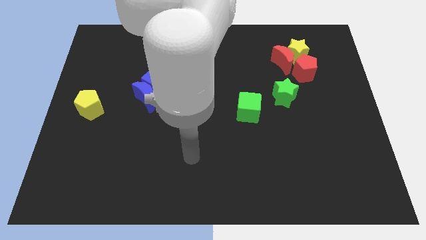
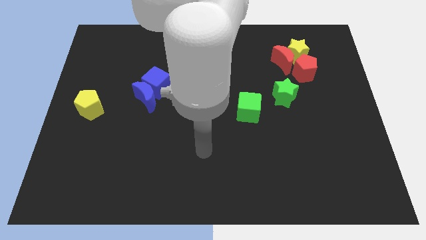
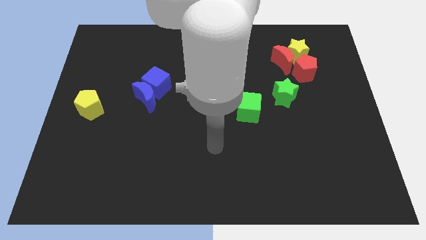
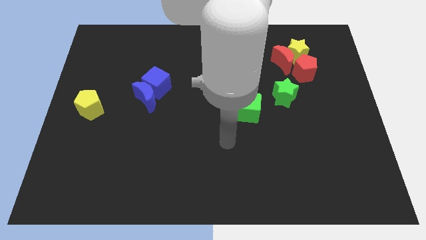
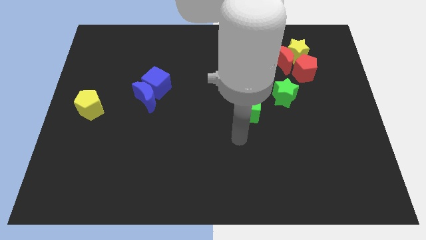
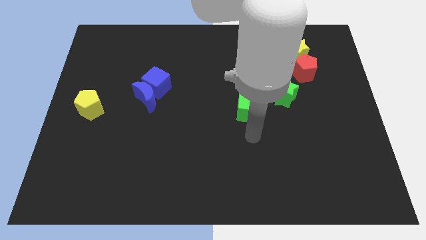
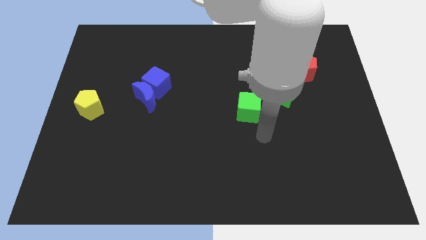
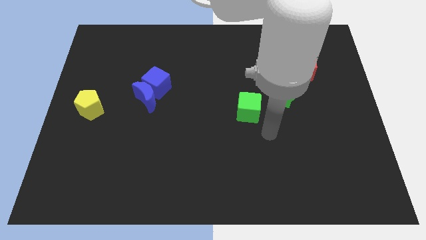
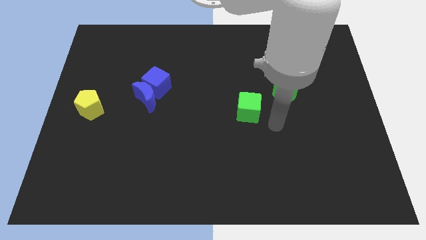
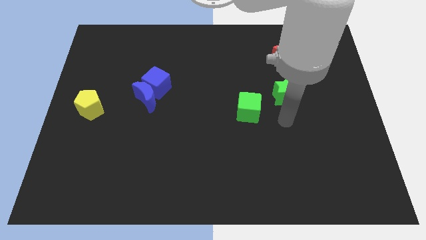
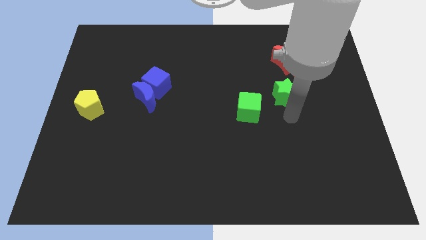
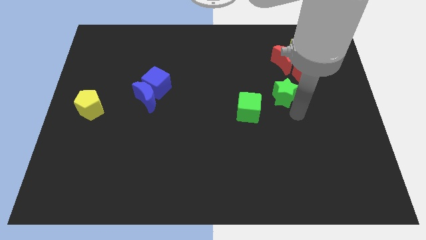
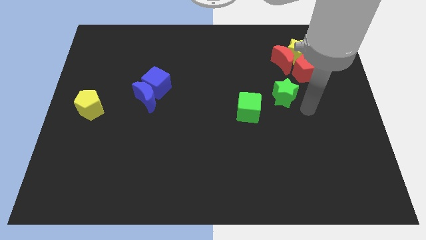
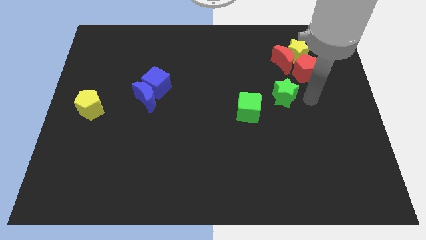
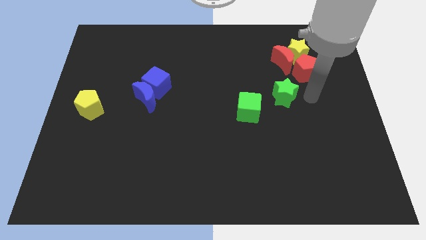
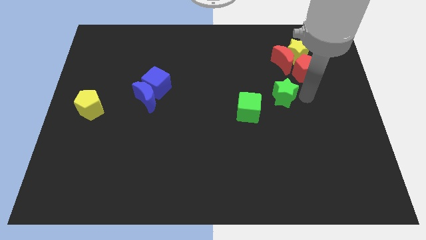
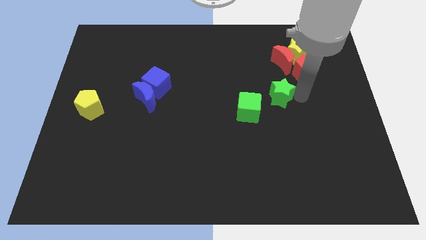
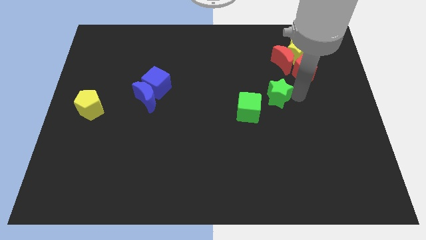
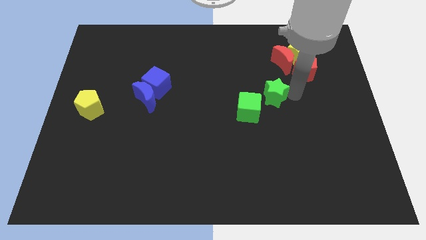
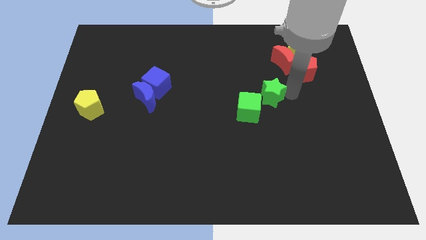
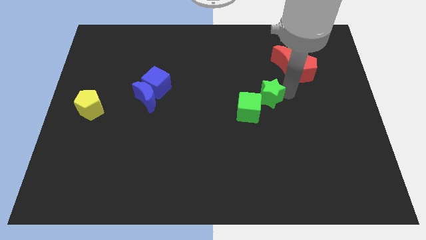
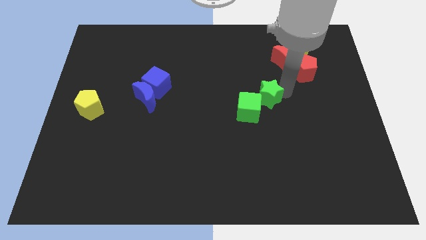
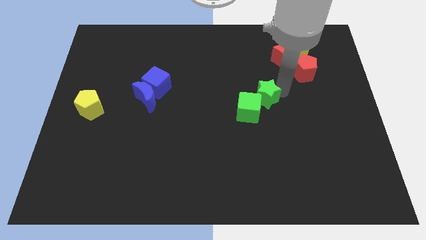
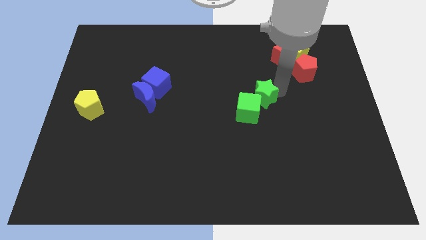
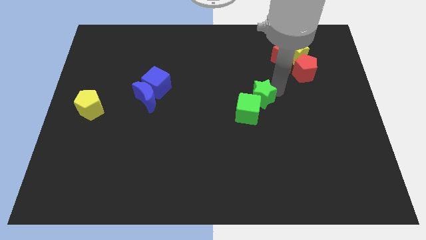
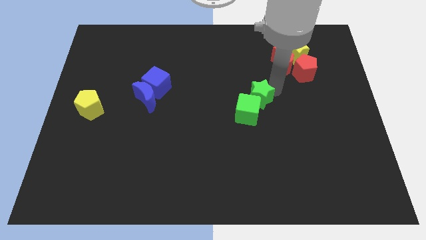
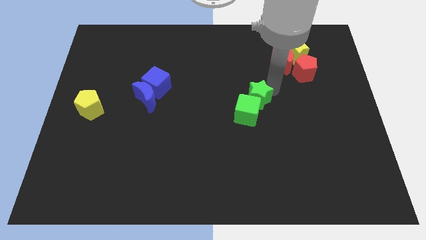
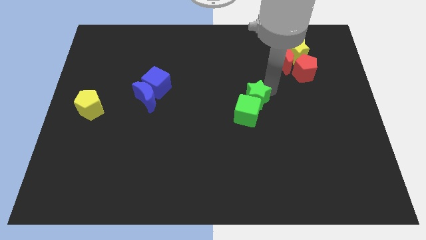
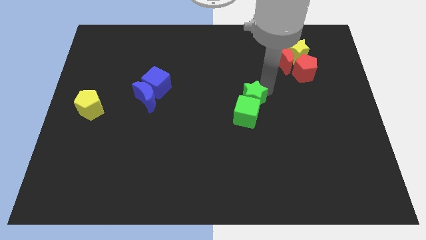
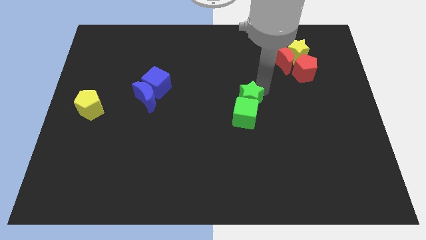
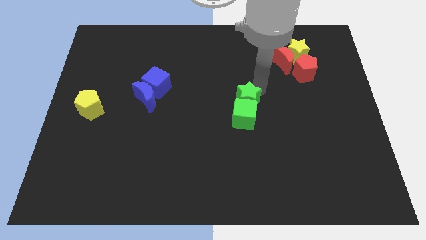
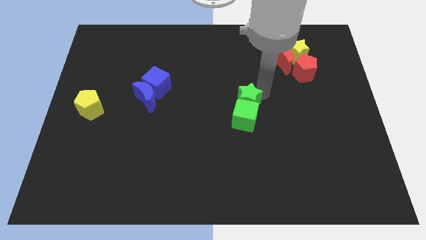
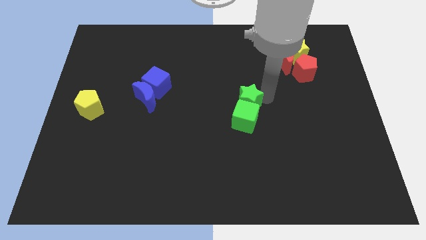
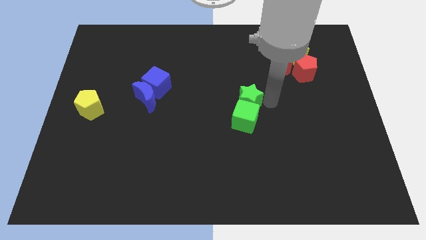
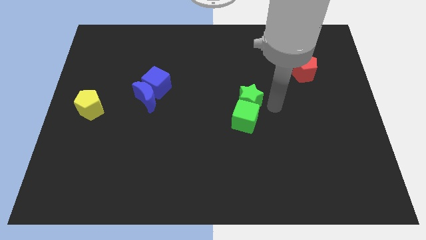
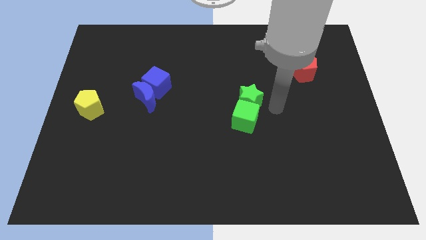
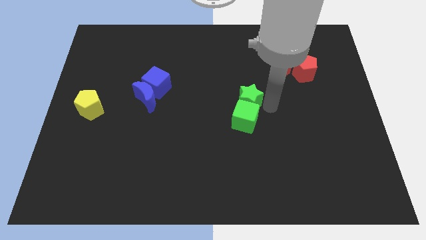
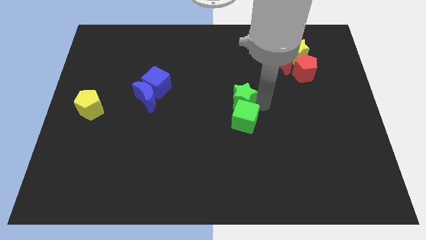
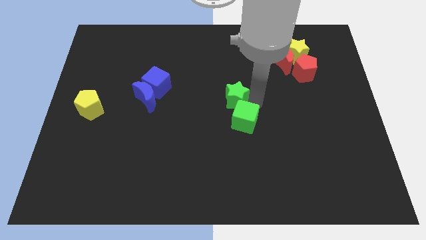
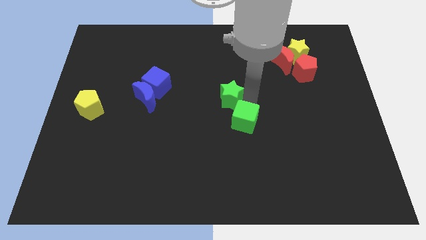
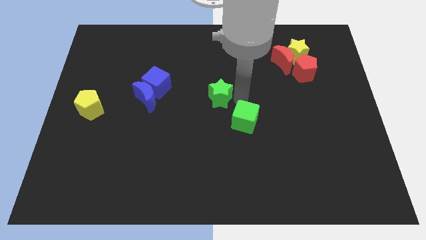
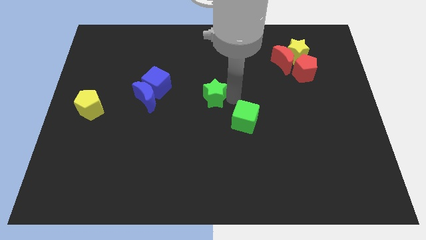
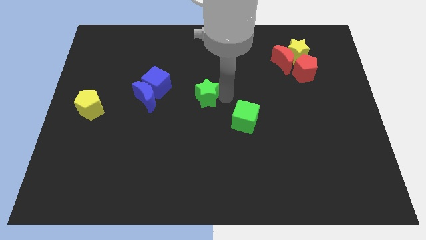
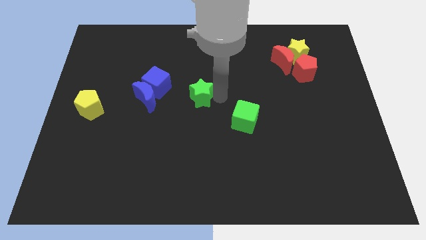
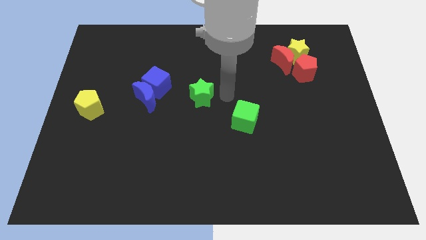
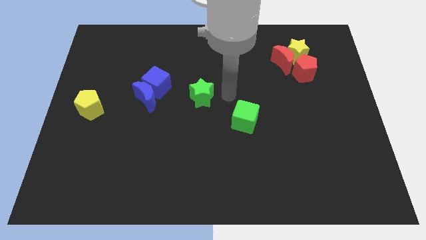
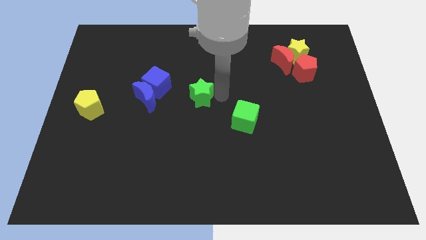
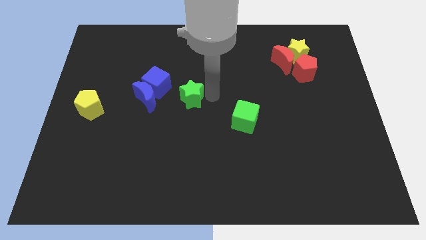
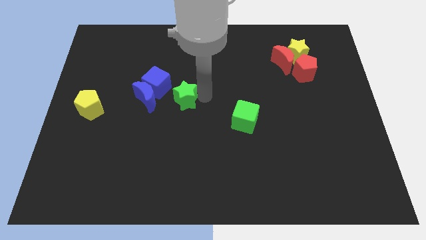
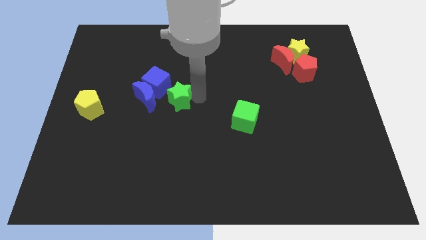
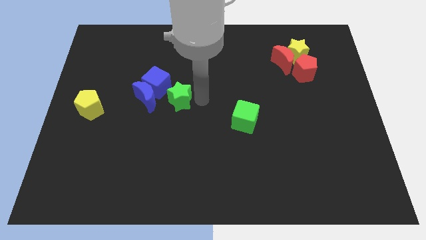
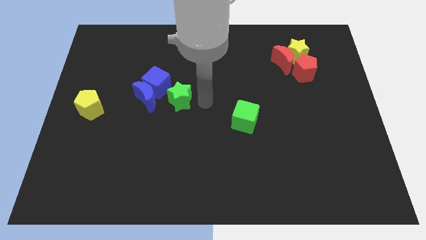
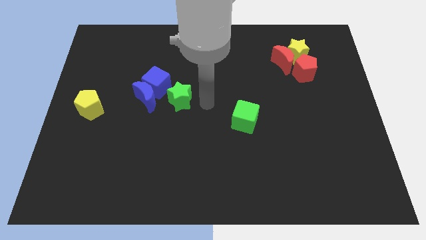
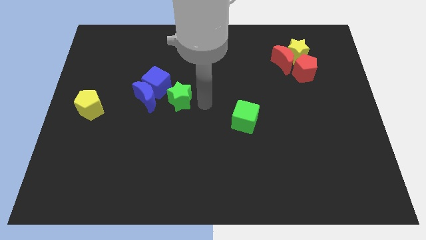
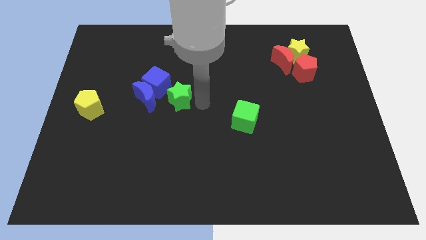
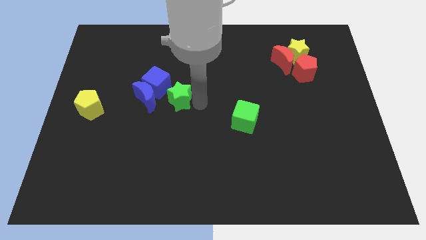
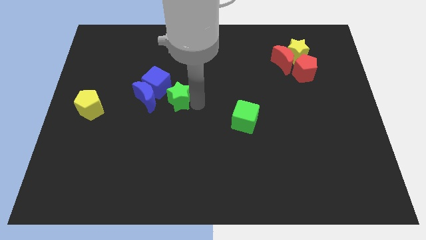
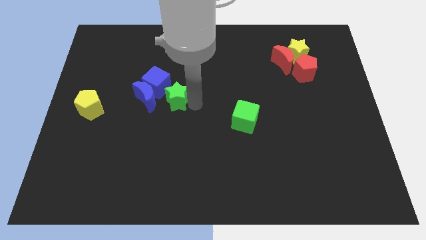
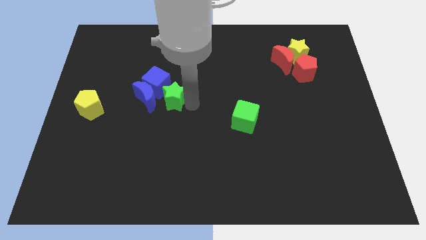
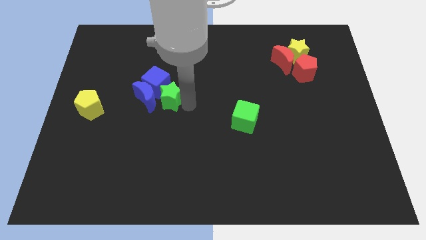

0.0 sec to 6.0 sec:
slide the green star towards the blue moon

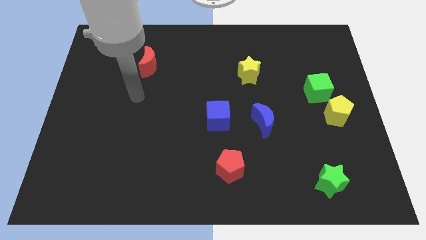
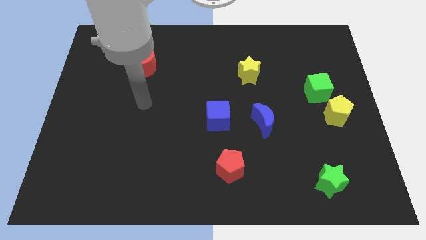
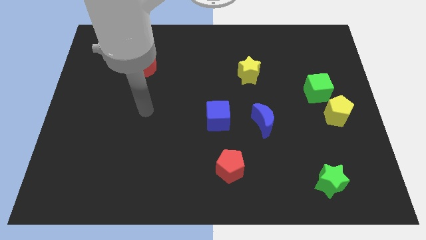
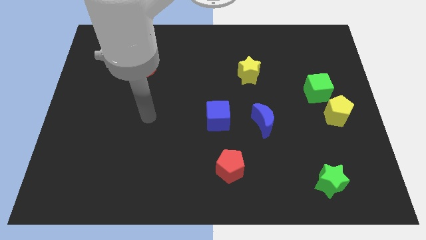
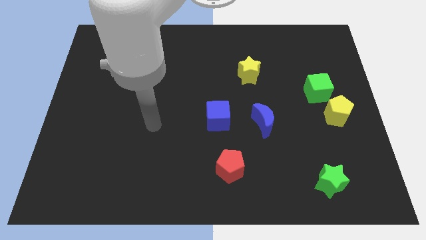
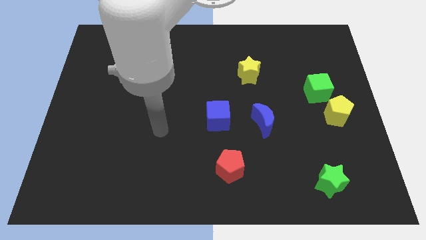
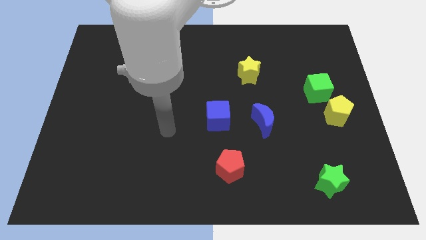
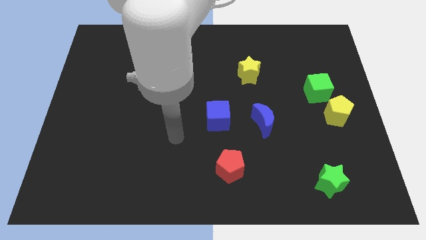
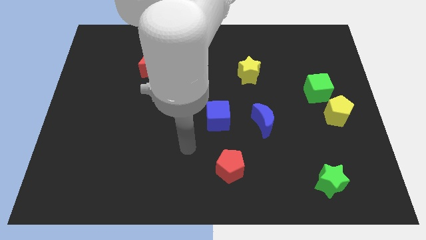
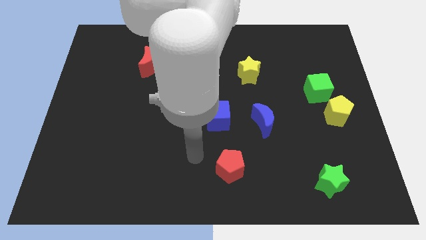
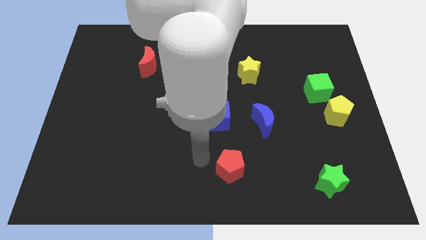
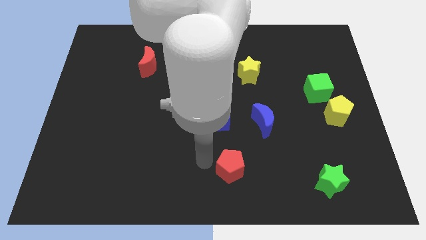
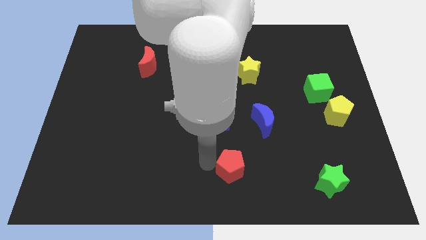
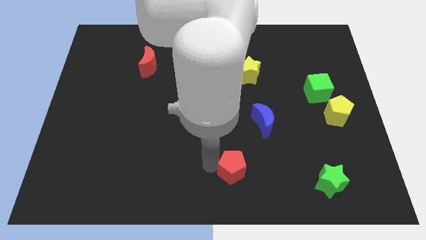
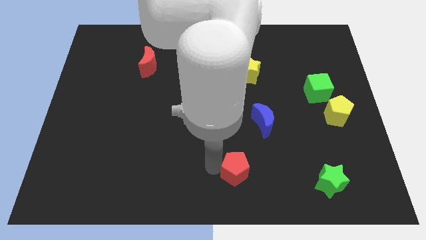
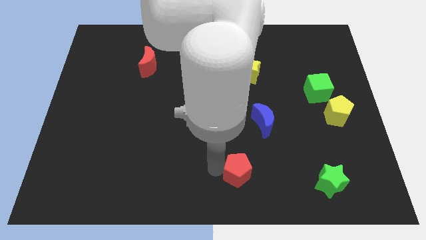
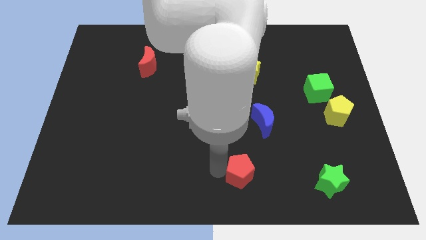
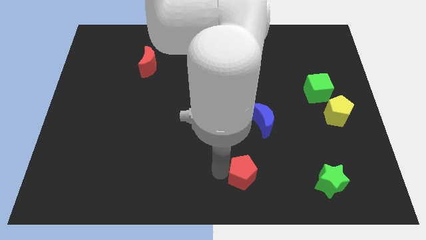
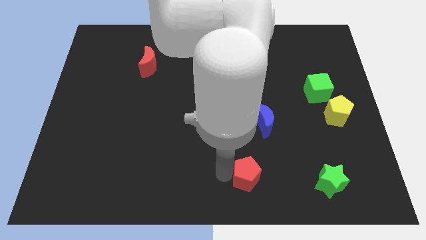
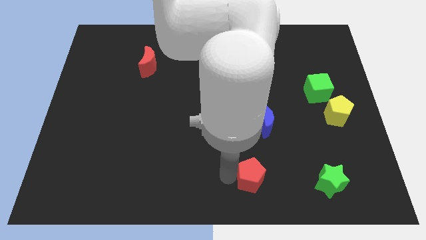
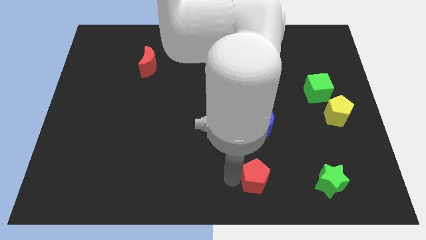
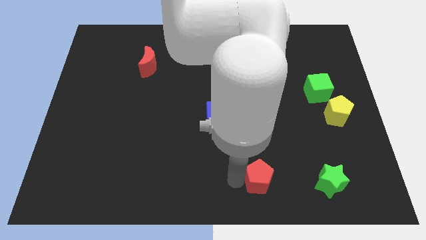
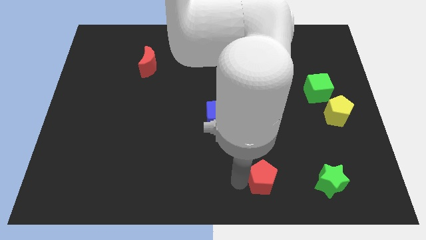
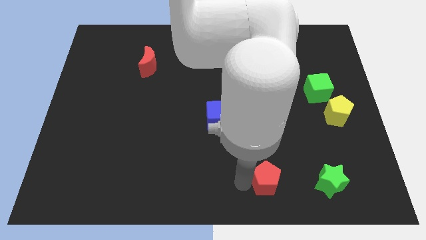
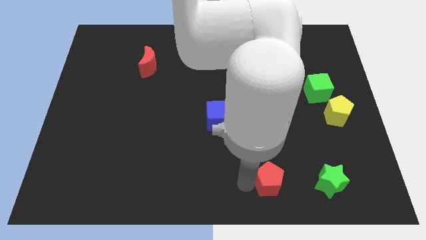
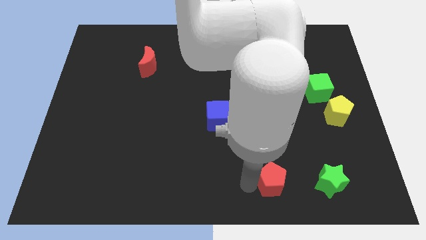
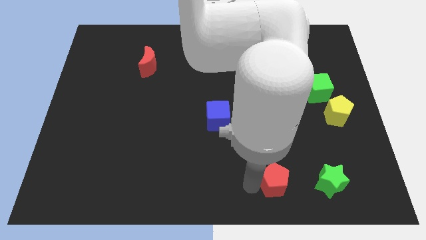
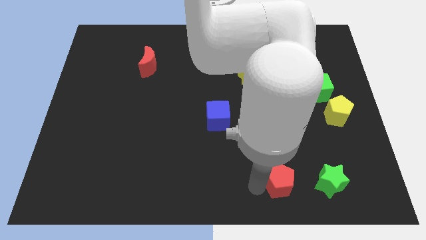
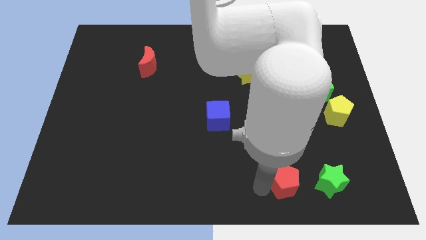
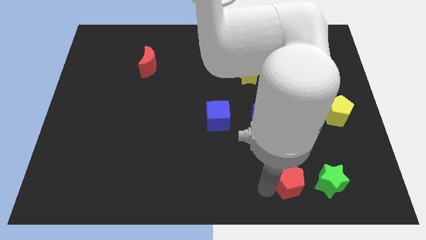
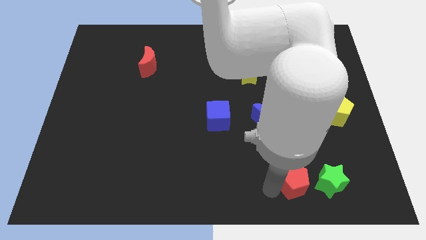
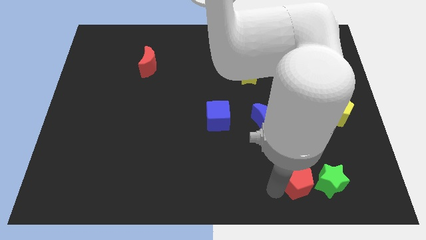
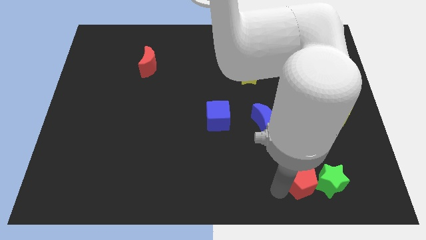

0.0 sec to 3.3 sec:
push the red pentagon close to the green star
